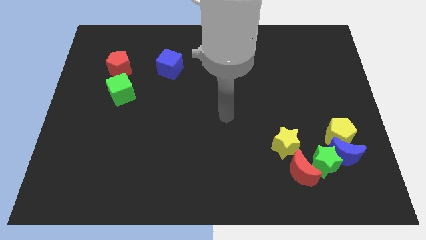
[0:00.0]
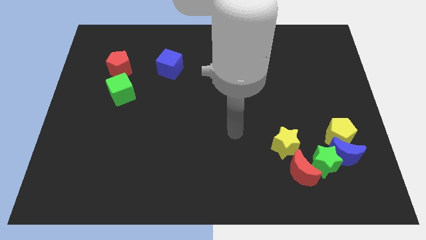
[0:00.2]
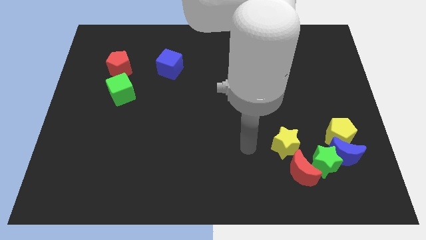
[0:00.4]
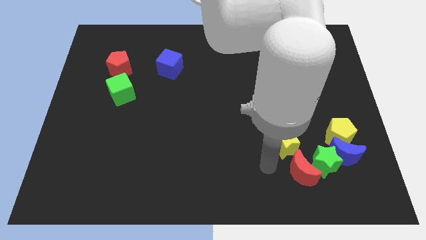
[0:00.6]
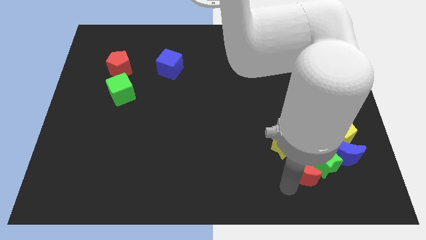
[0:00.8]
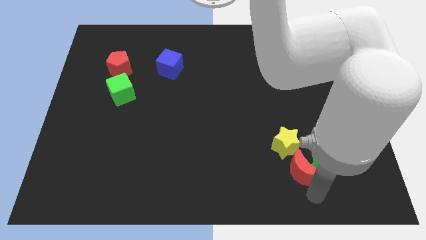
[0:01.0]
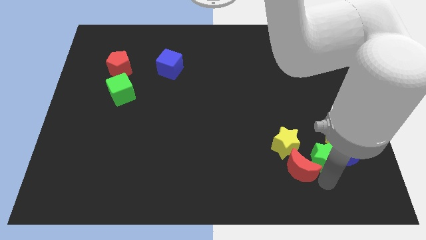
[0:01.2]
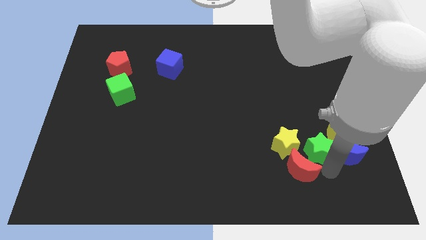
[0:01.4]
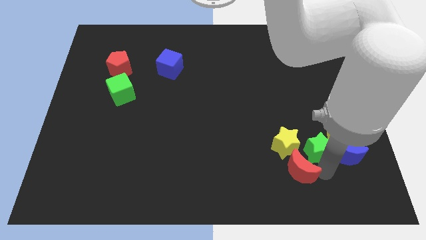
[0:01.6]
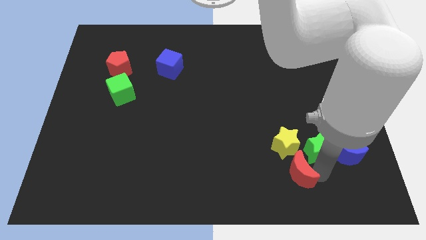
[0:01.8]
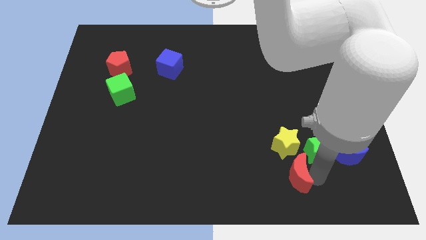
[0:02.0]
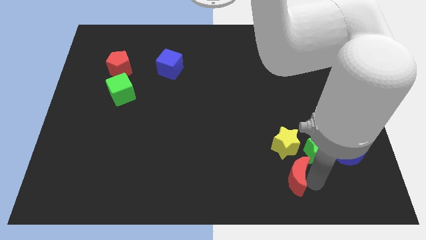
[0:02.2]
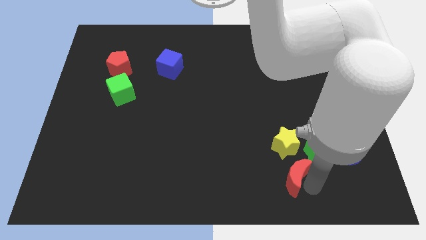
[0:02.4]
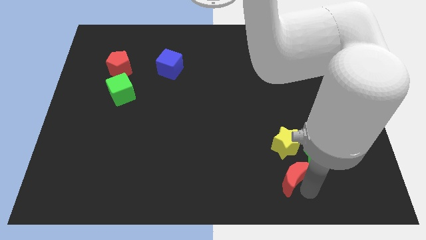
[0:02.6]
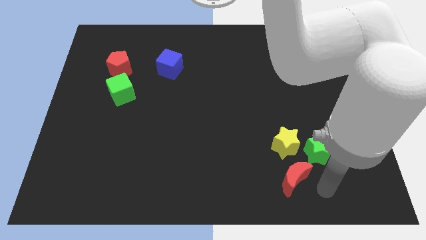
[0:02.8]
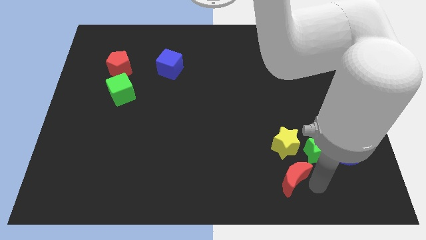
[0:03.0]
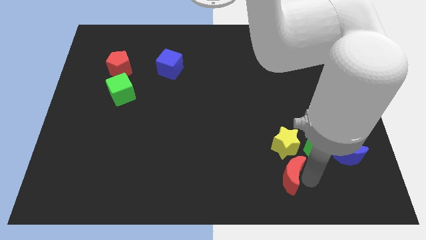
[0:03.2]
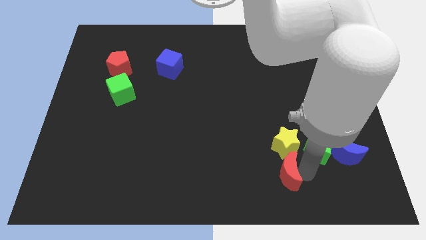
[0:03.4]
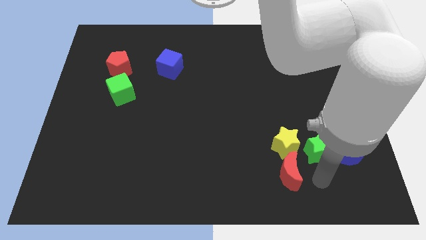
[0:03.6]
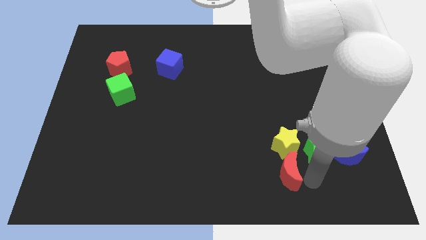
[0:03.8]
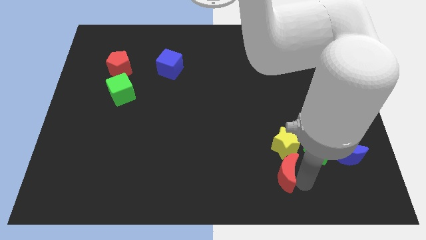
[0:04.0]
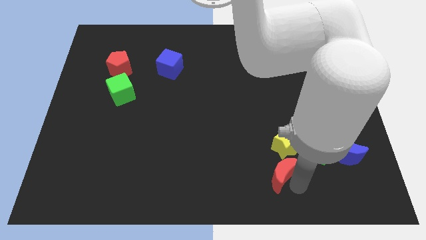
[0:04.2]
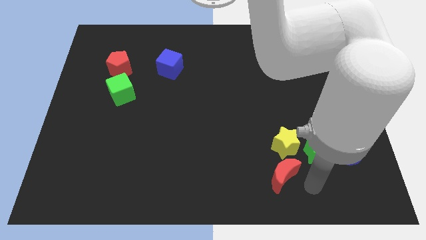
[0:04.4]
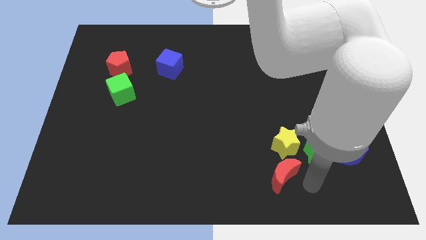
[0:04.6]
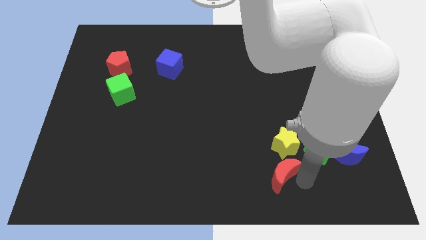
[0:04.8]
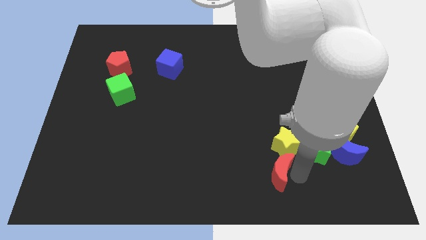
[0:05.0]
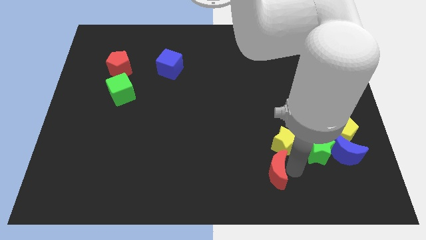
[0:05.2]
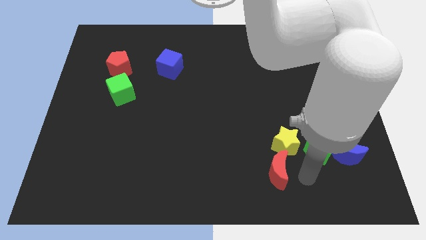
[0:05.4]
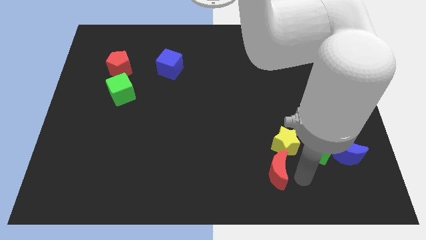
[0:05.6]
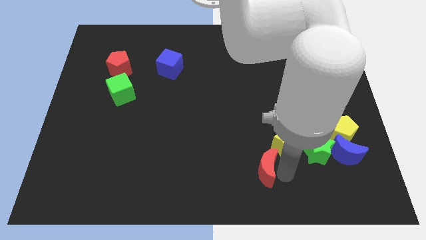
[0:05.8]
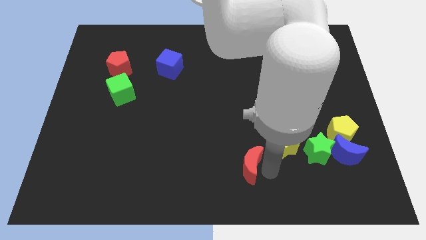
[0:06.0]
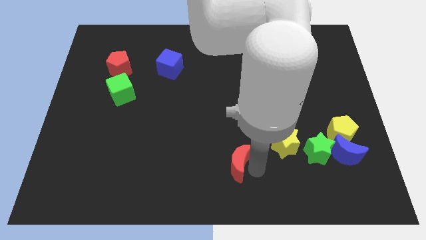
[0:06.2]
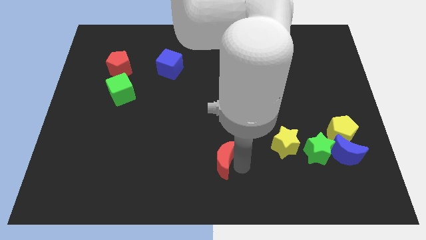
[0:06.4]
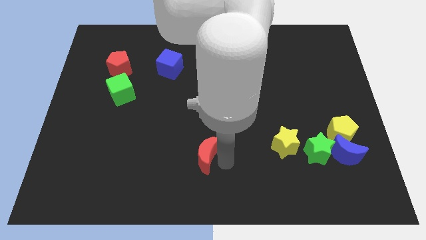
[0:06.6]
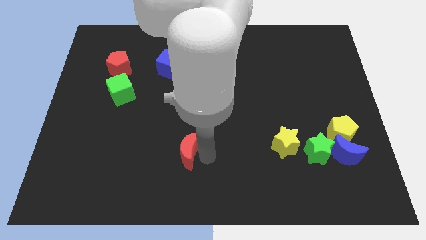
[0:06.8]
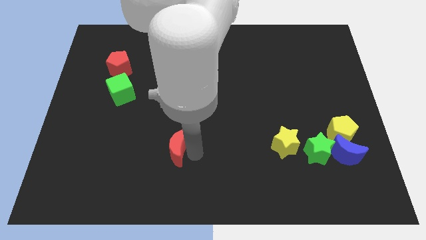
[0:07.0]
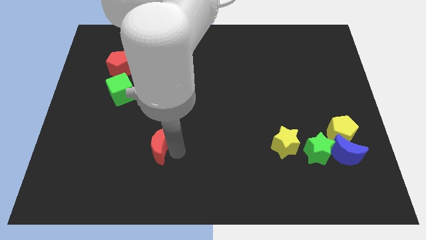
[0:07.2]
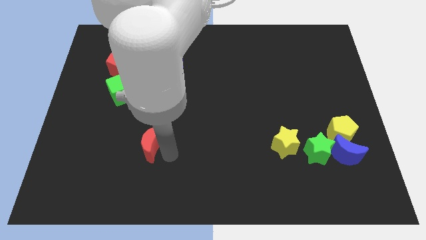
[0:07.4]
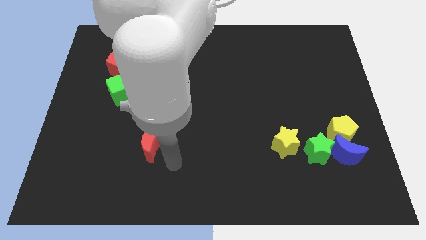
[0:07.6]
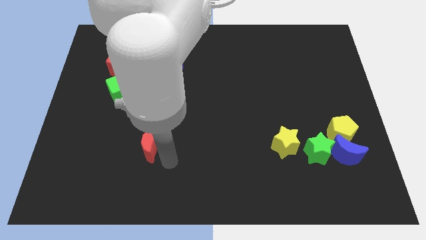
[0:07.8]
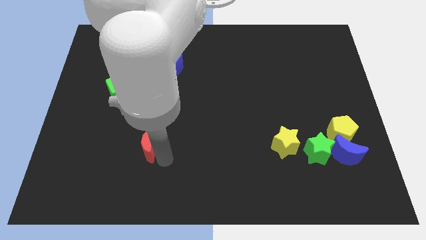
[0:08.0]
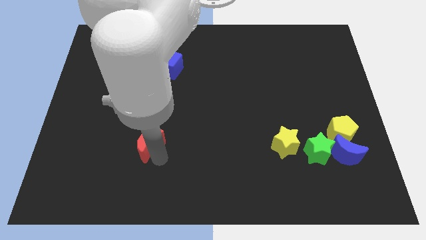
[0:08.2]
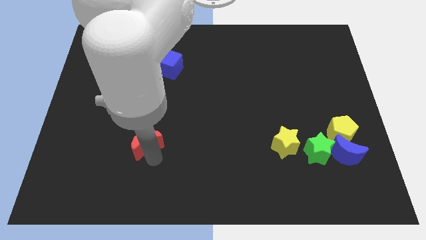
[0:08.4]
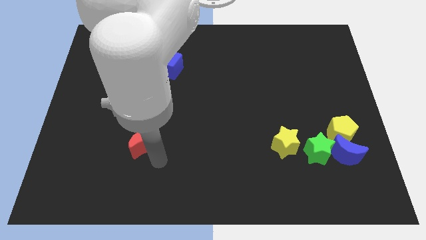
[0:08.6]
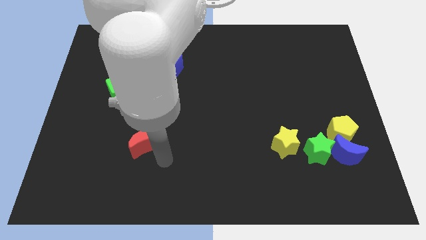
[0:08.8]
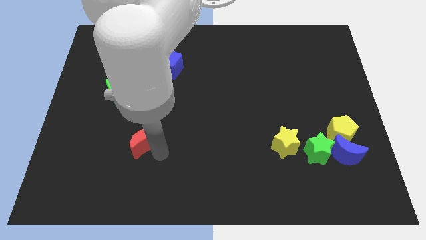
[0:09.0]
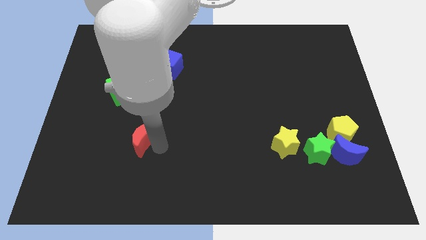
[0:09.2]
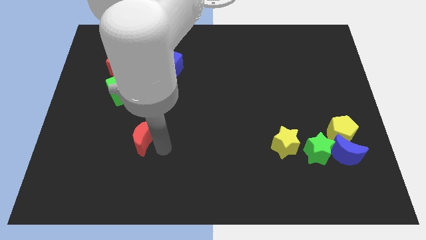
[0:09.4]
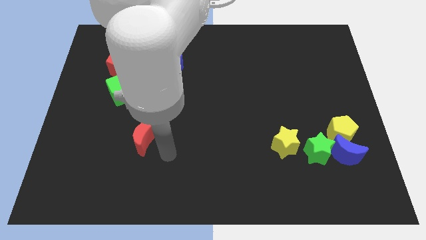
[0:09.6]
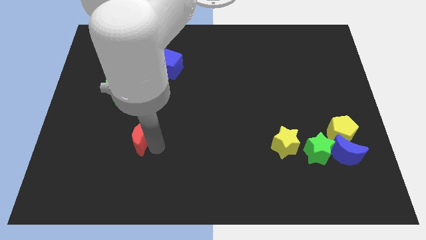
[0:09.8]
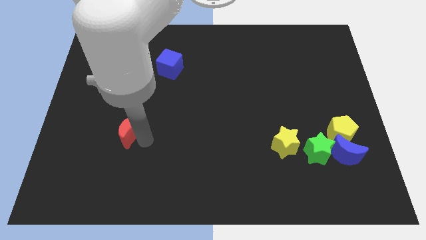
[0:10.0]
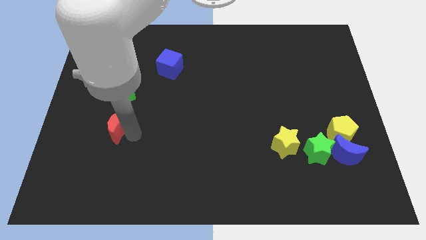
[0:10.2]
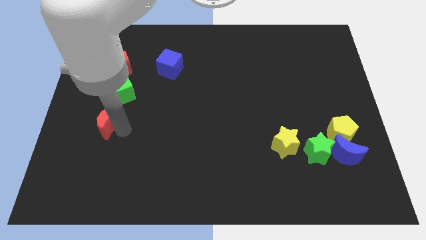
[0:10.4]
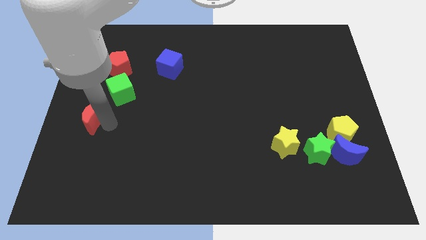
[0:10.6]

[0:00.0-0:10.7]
push the red moon to the left side
